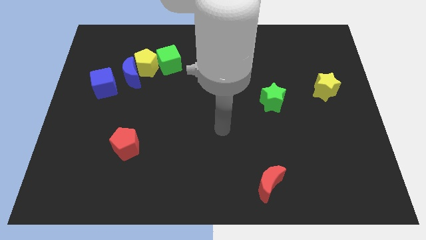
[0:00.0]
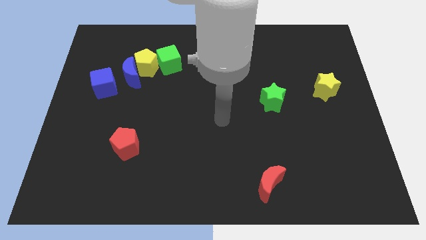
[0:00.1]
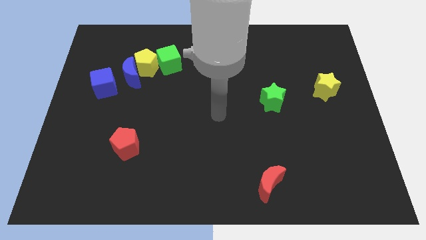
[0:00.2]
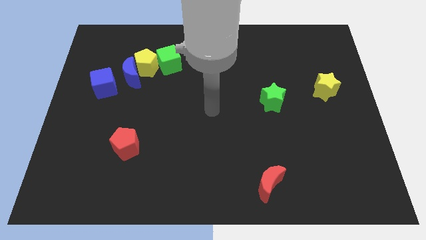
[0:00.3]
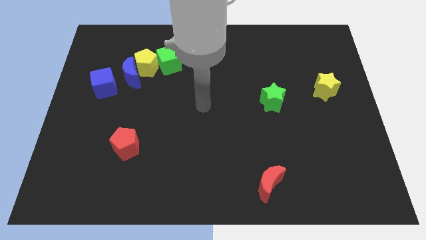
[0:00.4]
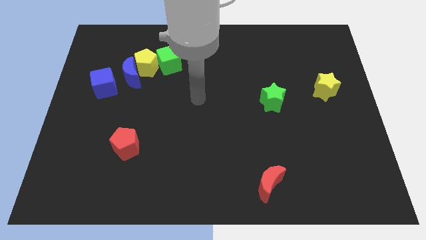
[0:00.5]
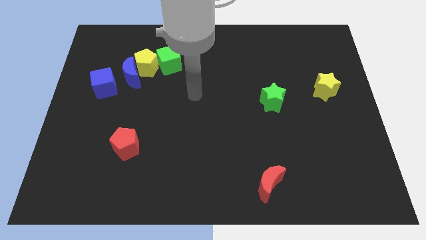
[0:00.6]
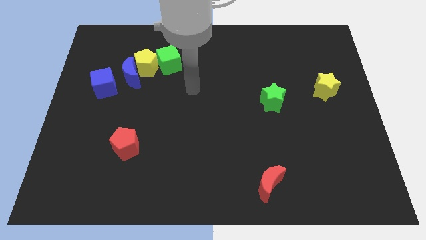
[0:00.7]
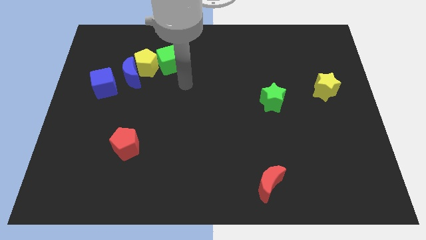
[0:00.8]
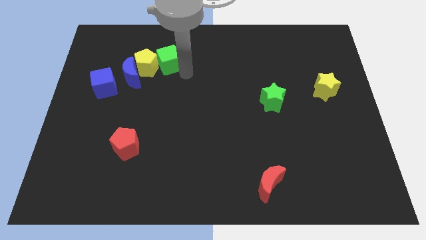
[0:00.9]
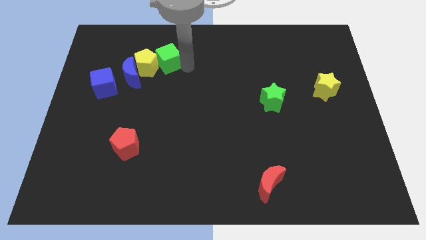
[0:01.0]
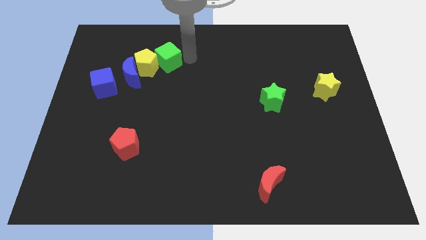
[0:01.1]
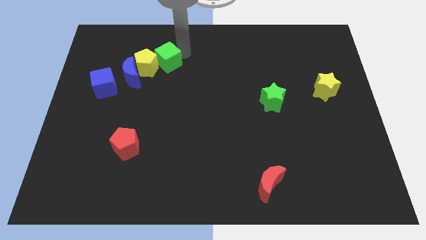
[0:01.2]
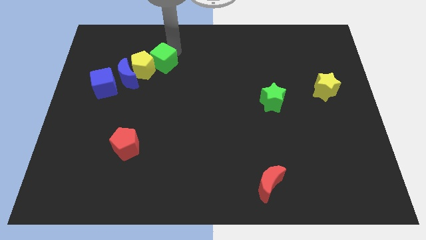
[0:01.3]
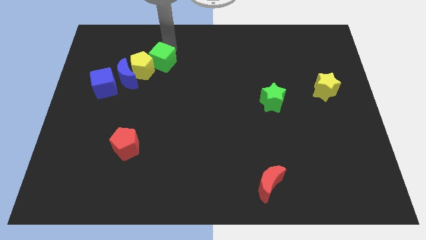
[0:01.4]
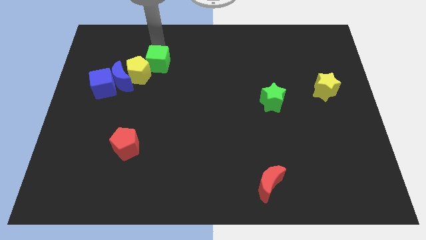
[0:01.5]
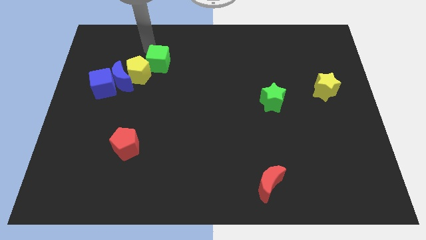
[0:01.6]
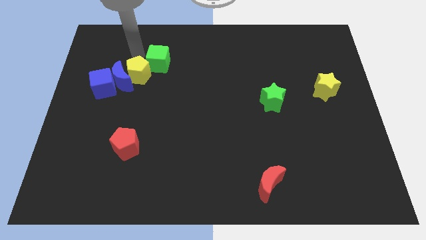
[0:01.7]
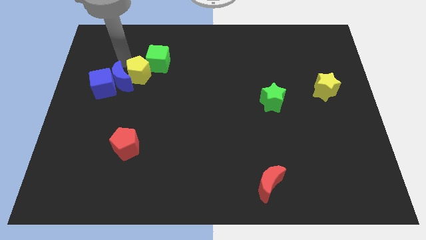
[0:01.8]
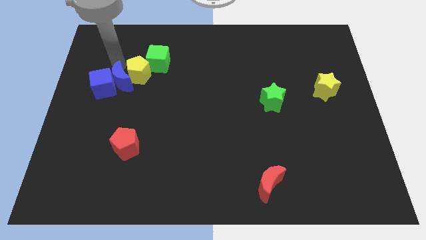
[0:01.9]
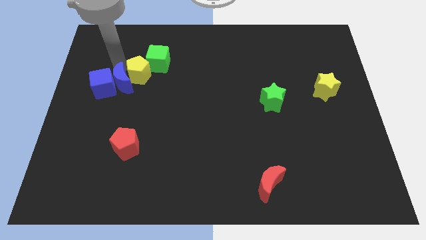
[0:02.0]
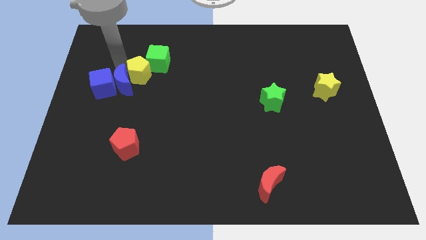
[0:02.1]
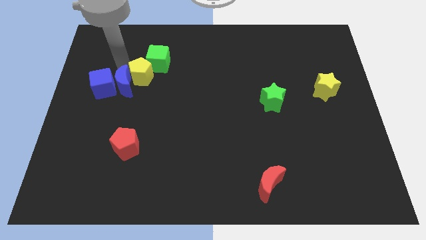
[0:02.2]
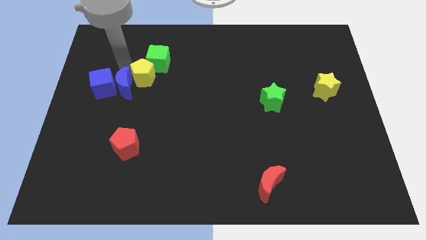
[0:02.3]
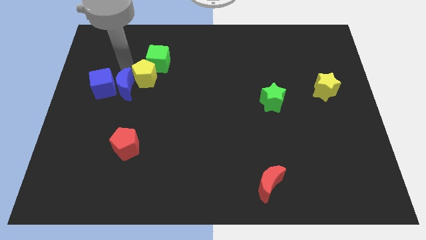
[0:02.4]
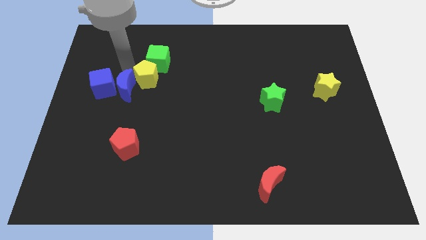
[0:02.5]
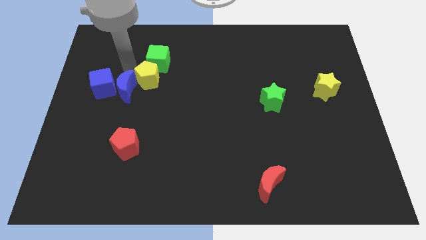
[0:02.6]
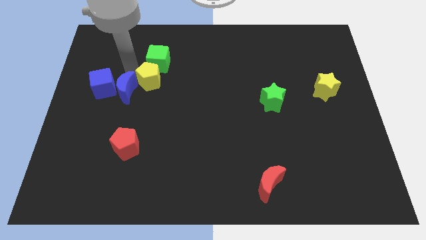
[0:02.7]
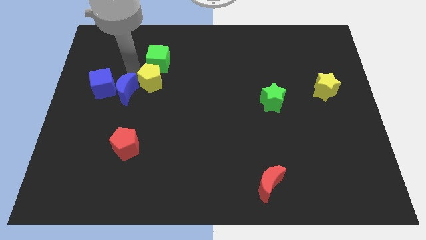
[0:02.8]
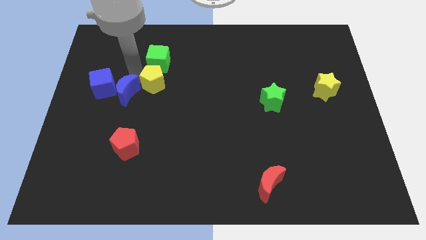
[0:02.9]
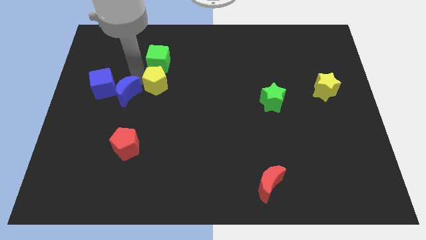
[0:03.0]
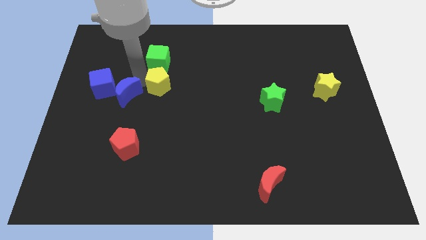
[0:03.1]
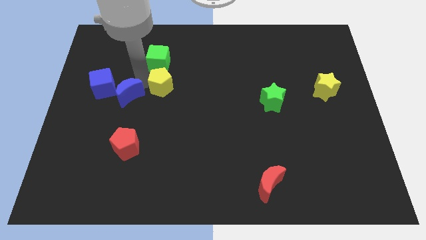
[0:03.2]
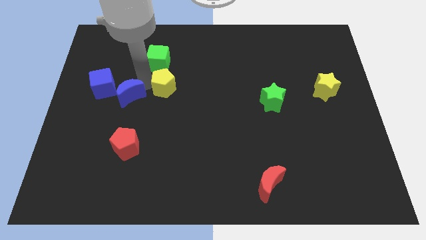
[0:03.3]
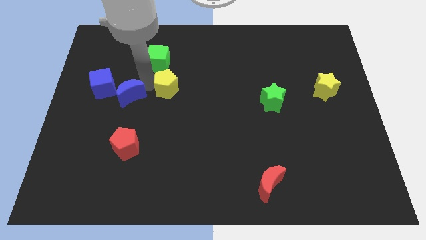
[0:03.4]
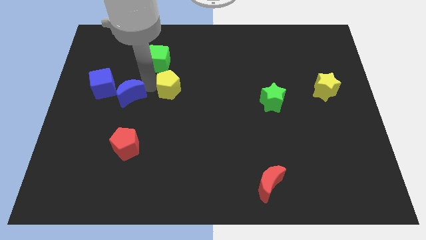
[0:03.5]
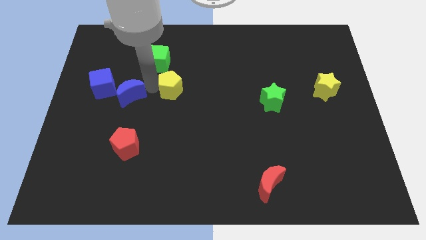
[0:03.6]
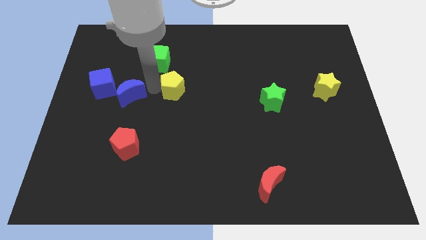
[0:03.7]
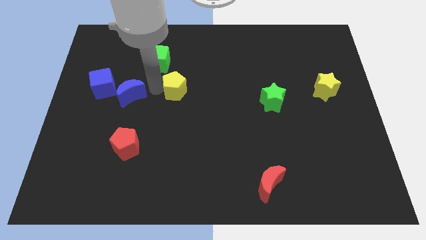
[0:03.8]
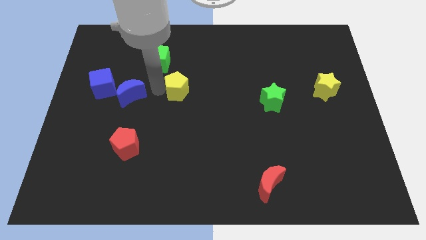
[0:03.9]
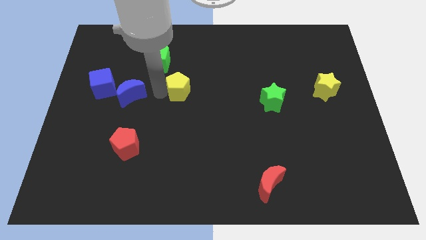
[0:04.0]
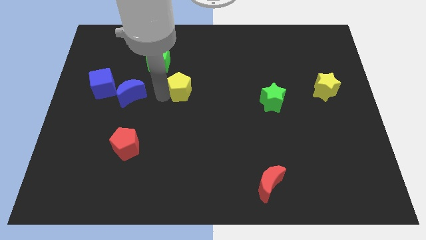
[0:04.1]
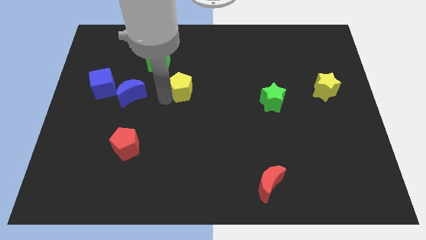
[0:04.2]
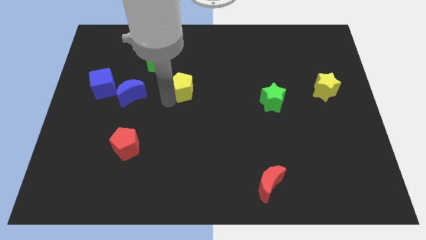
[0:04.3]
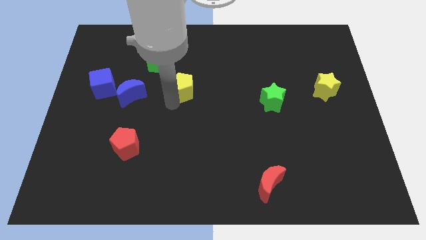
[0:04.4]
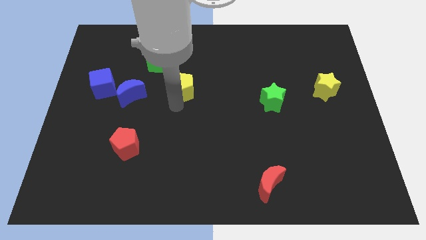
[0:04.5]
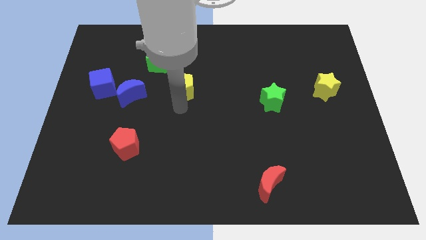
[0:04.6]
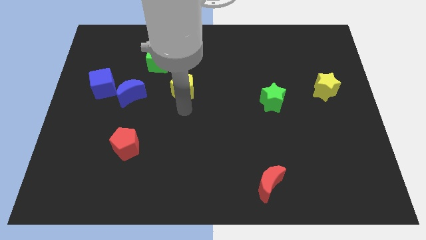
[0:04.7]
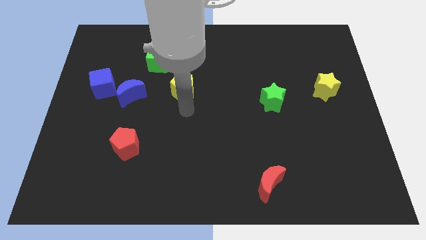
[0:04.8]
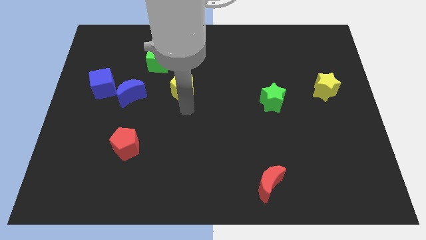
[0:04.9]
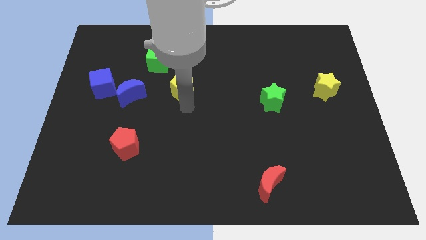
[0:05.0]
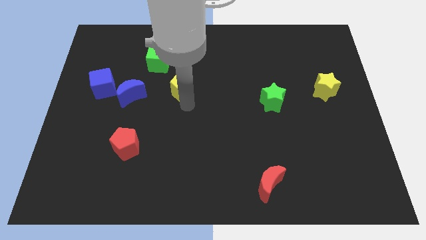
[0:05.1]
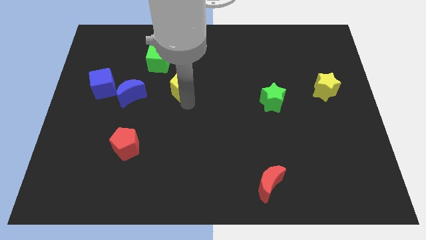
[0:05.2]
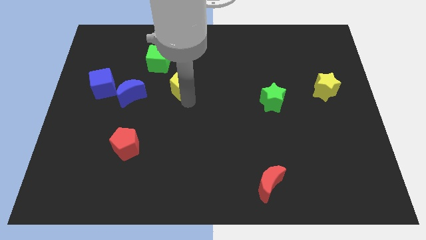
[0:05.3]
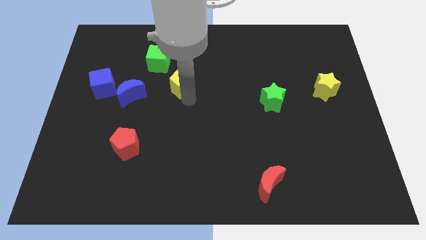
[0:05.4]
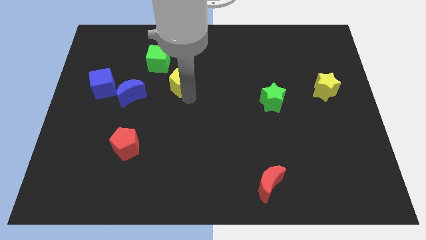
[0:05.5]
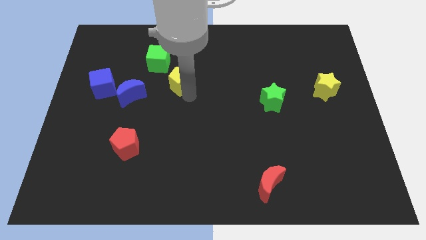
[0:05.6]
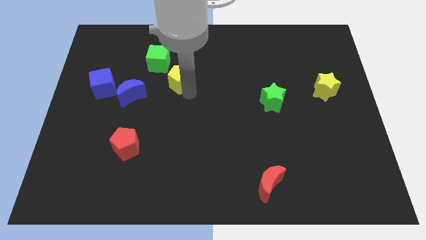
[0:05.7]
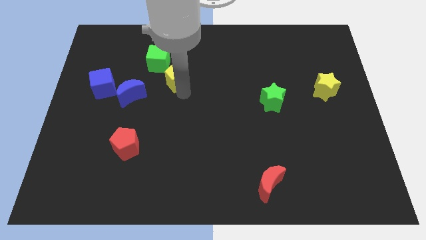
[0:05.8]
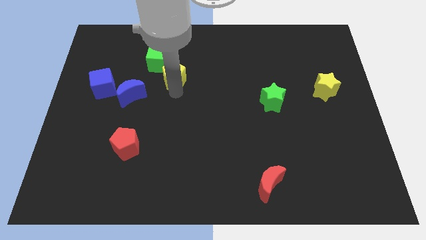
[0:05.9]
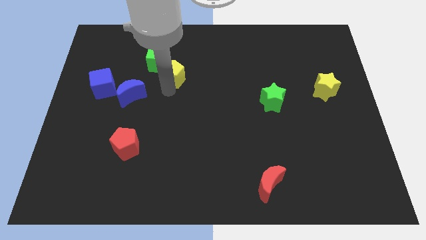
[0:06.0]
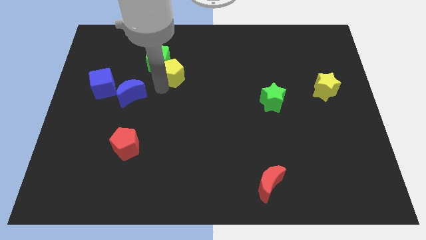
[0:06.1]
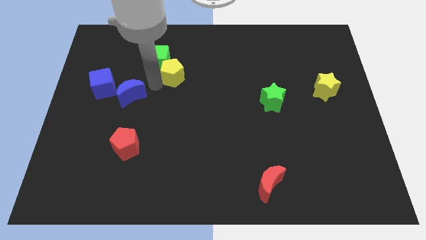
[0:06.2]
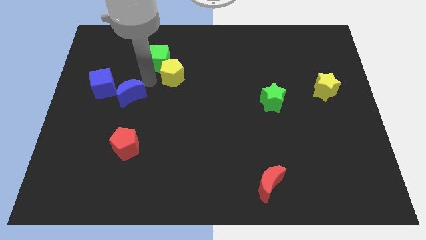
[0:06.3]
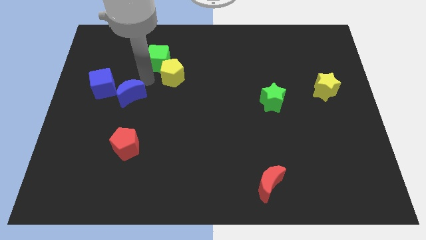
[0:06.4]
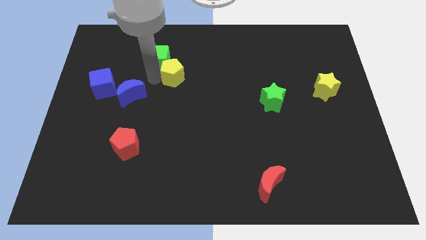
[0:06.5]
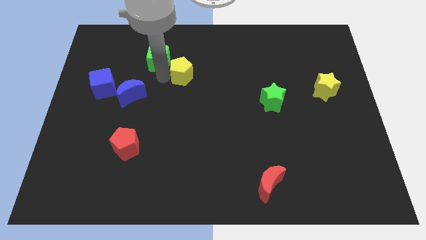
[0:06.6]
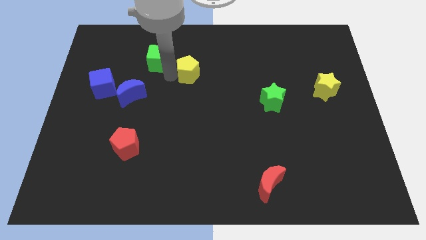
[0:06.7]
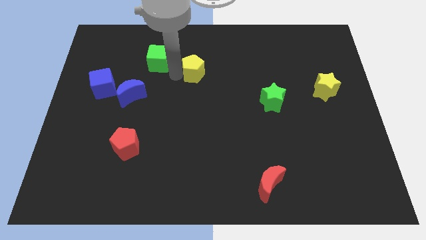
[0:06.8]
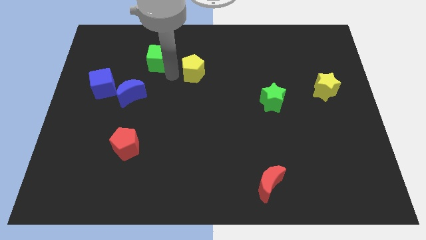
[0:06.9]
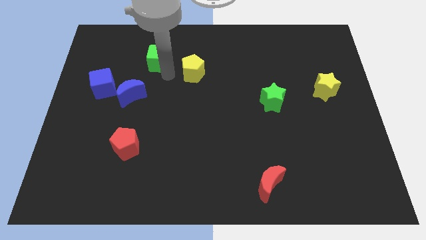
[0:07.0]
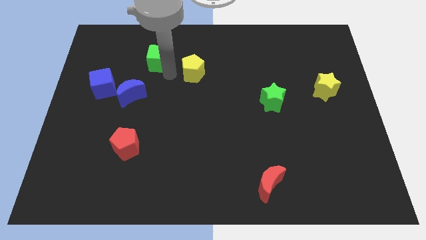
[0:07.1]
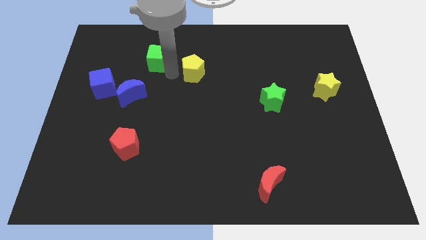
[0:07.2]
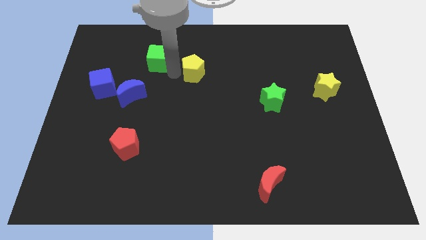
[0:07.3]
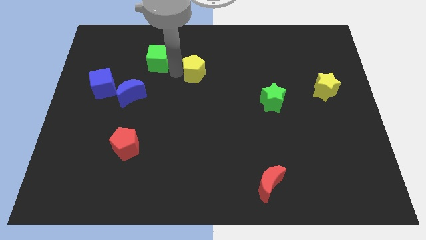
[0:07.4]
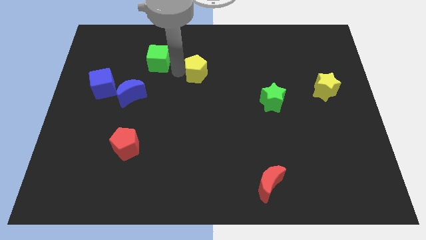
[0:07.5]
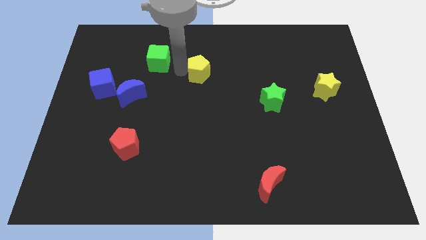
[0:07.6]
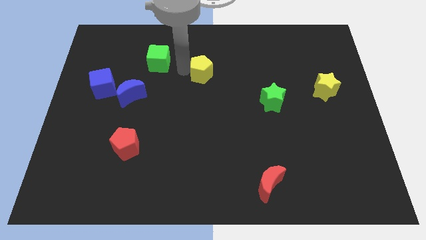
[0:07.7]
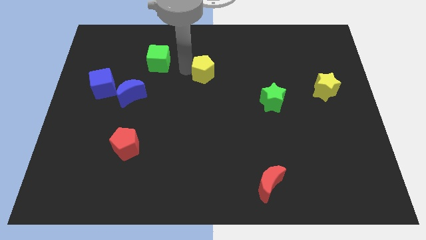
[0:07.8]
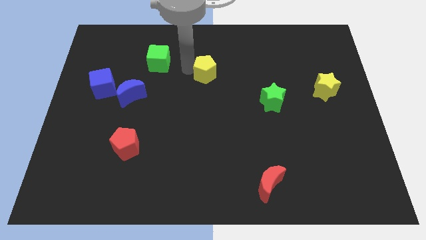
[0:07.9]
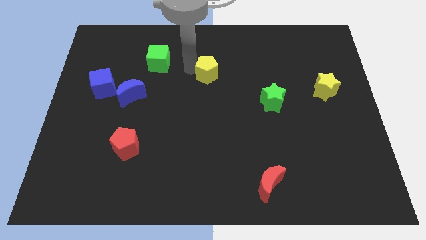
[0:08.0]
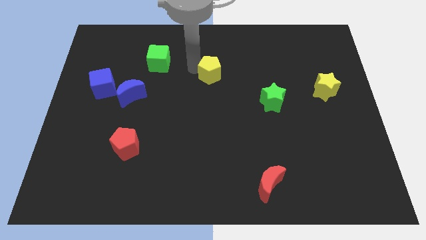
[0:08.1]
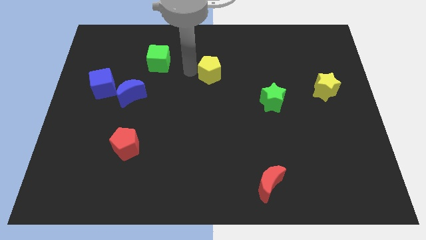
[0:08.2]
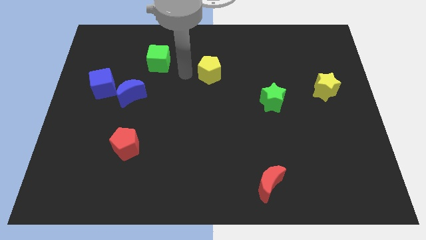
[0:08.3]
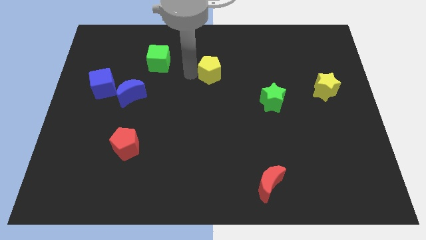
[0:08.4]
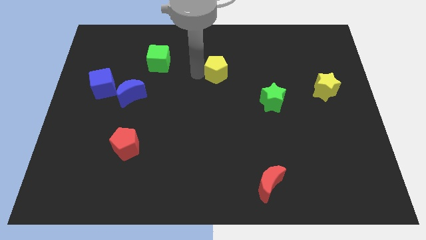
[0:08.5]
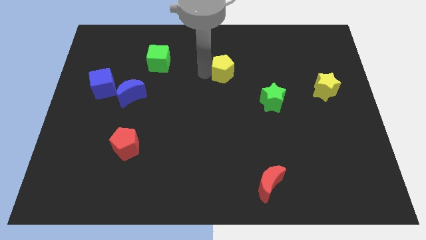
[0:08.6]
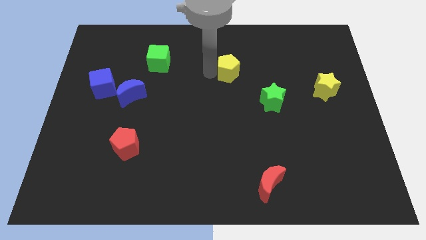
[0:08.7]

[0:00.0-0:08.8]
slide the yellow pentagon to the right
